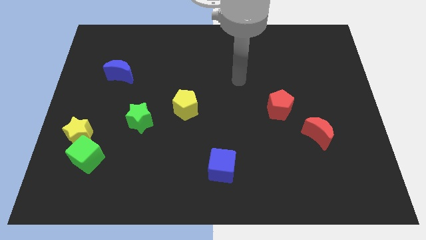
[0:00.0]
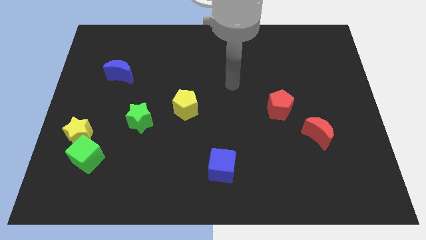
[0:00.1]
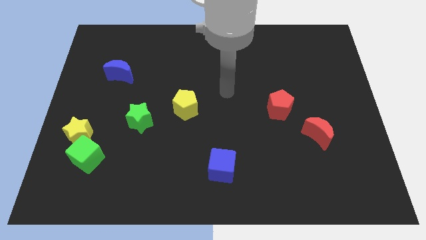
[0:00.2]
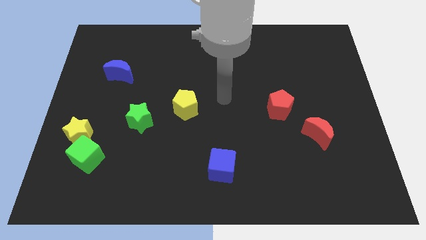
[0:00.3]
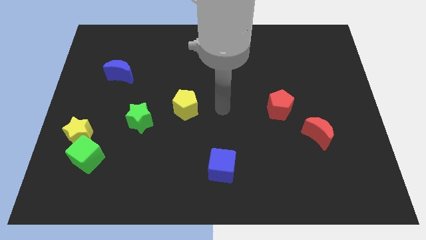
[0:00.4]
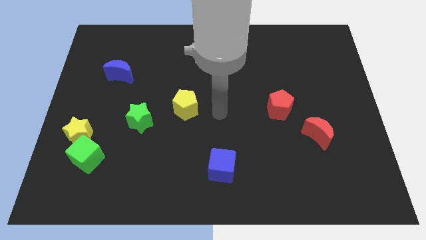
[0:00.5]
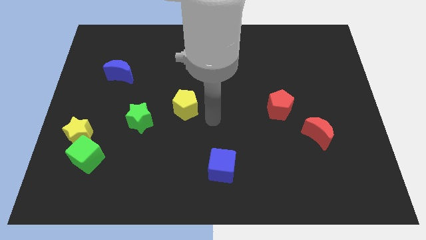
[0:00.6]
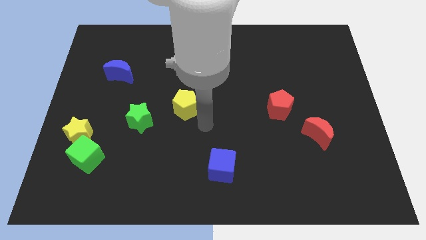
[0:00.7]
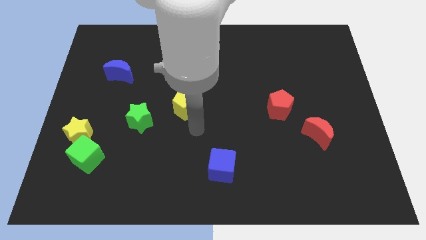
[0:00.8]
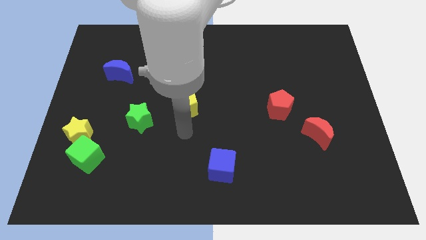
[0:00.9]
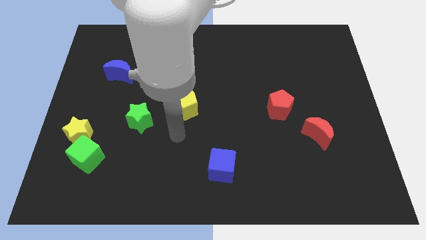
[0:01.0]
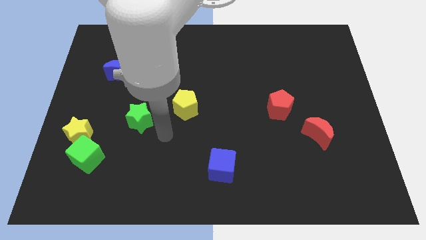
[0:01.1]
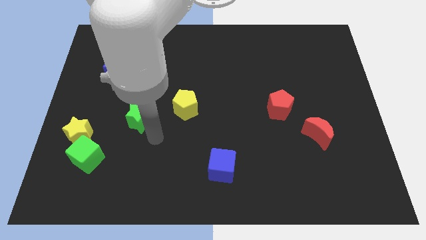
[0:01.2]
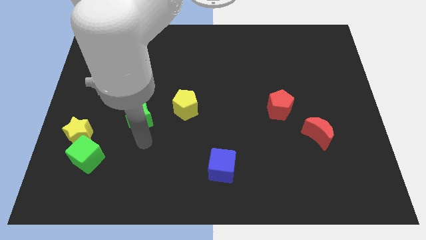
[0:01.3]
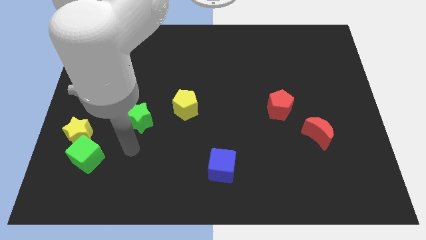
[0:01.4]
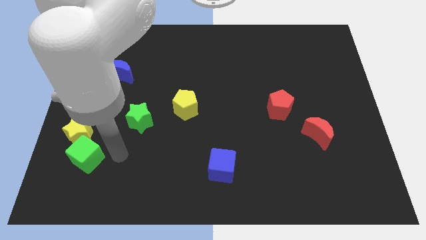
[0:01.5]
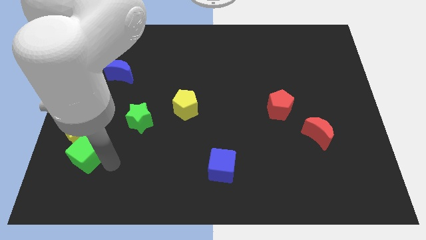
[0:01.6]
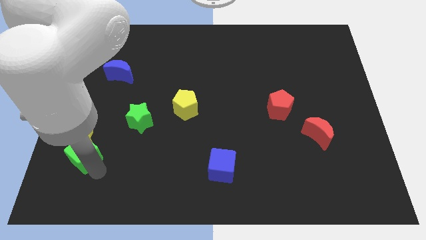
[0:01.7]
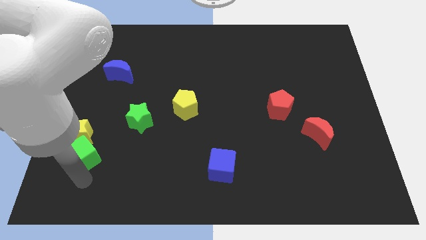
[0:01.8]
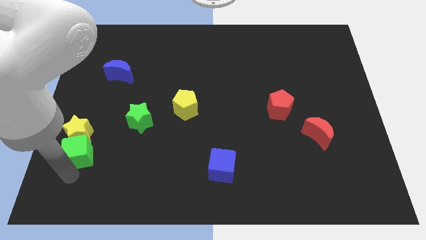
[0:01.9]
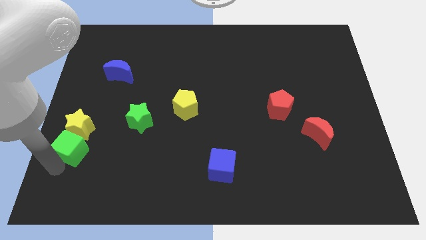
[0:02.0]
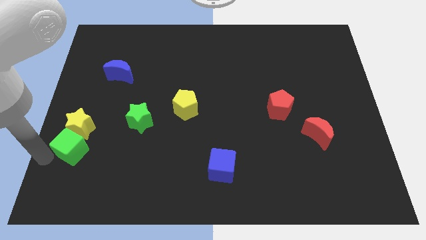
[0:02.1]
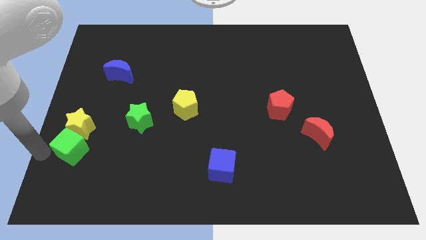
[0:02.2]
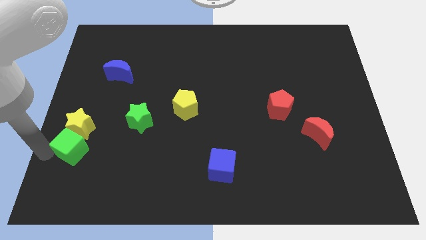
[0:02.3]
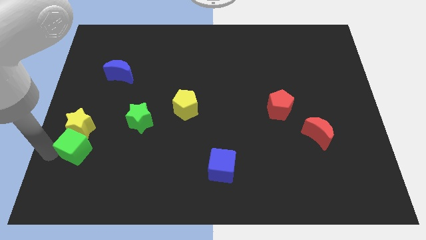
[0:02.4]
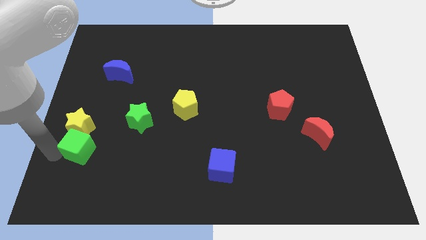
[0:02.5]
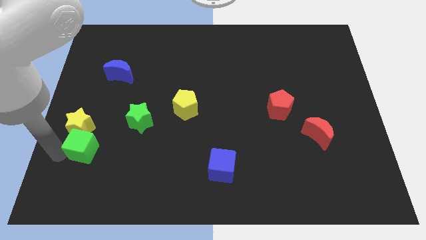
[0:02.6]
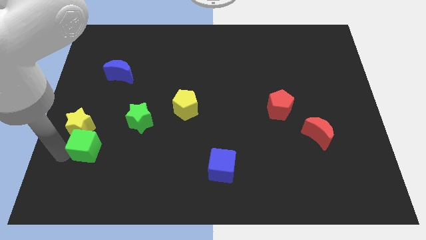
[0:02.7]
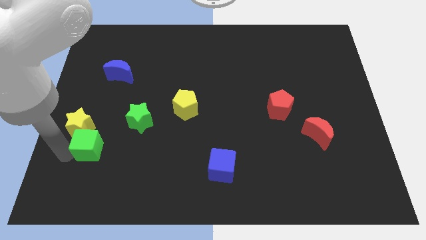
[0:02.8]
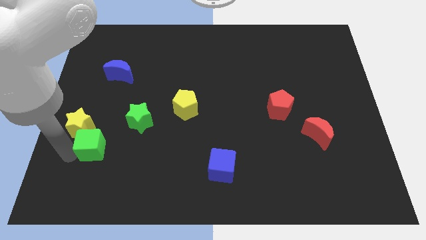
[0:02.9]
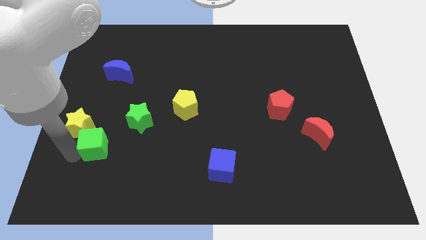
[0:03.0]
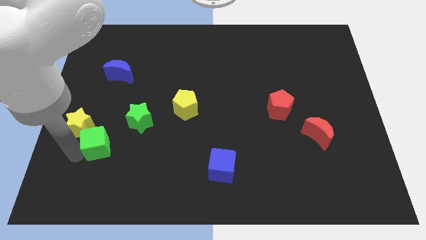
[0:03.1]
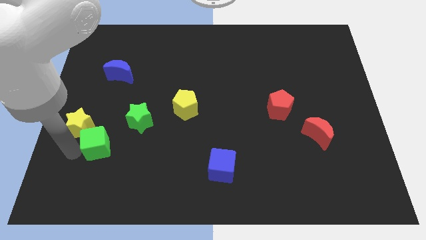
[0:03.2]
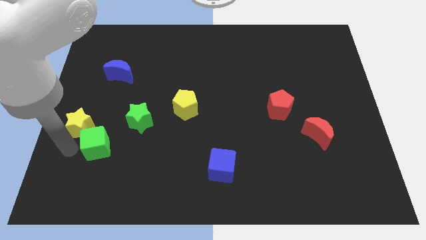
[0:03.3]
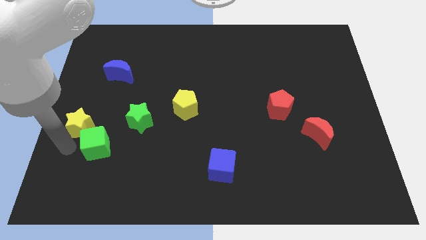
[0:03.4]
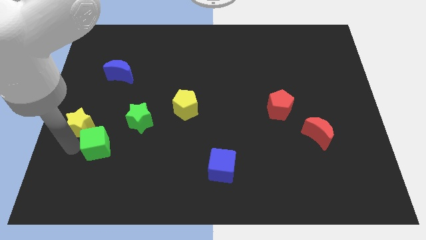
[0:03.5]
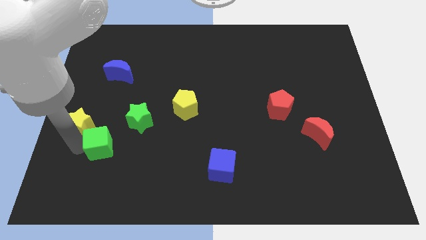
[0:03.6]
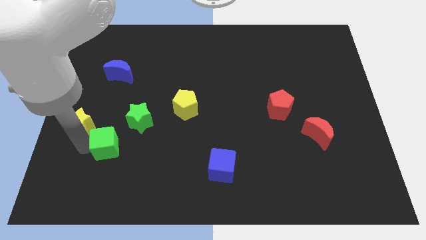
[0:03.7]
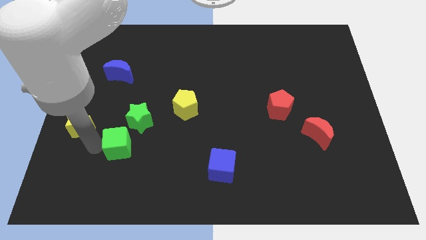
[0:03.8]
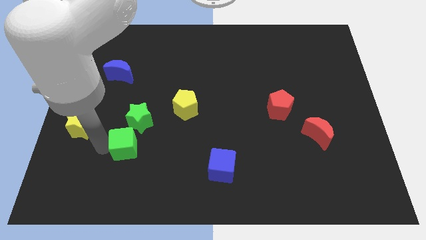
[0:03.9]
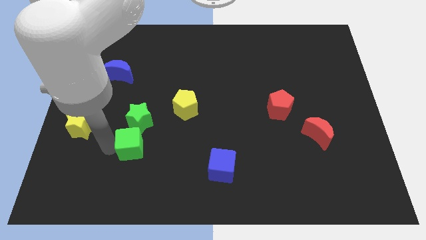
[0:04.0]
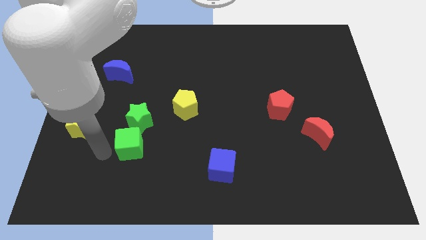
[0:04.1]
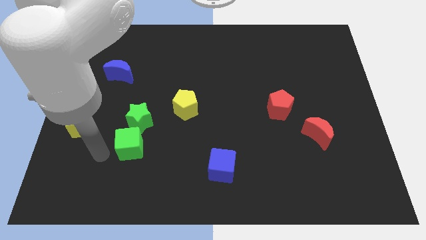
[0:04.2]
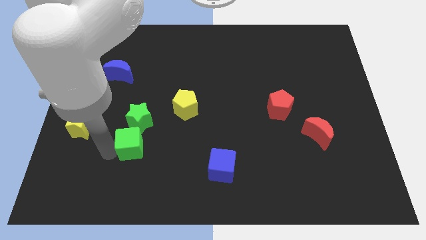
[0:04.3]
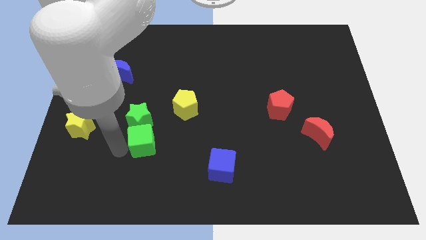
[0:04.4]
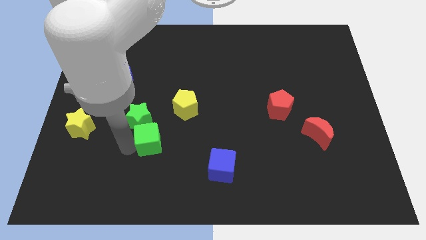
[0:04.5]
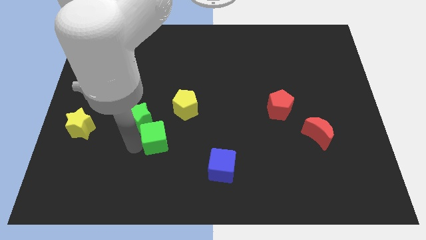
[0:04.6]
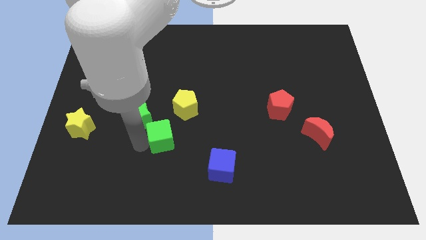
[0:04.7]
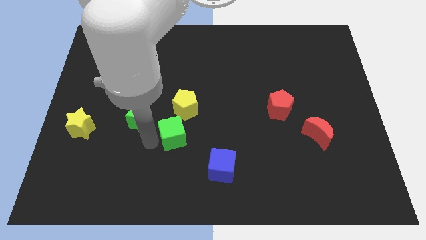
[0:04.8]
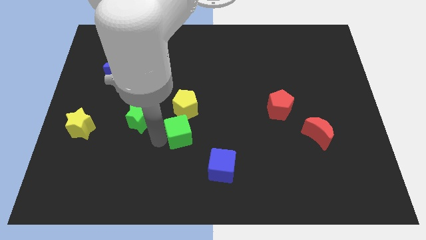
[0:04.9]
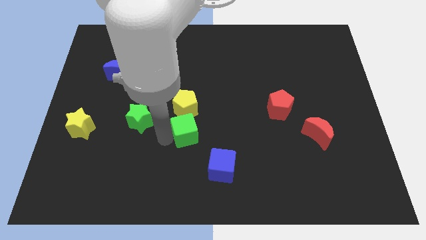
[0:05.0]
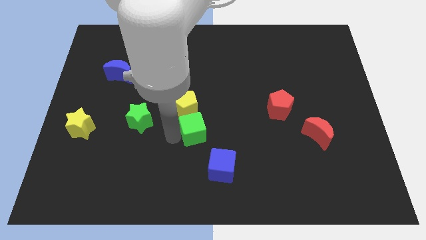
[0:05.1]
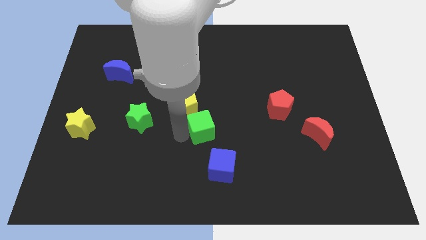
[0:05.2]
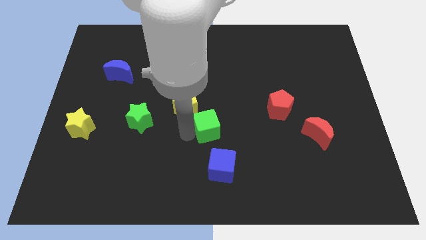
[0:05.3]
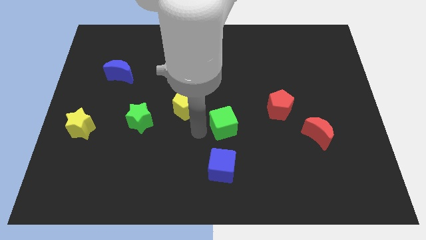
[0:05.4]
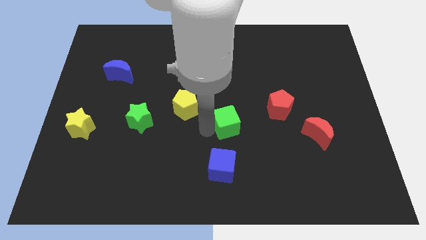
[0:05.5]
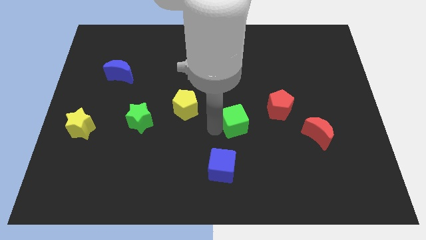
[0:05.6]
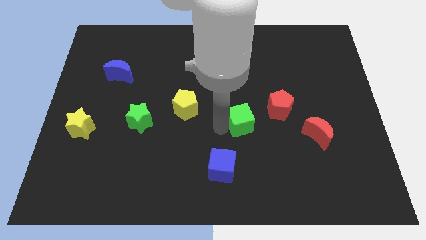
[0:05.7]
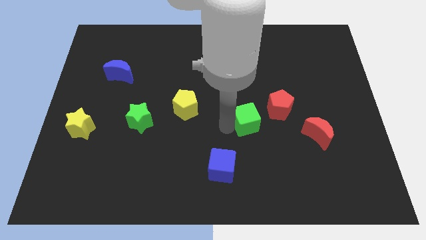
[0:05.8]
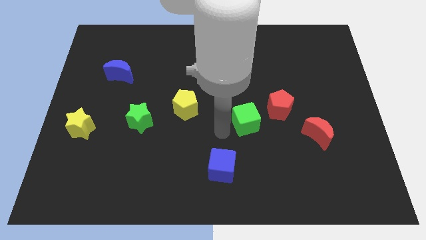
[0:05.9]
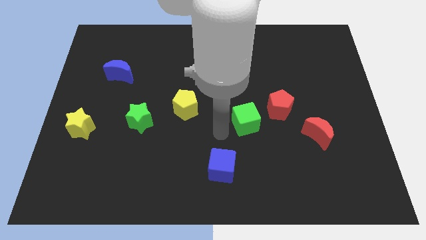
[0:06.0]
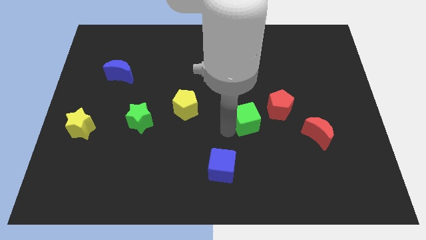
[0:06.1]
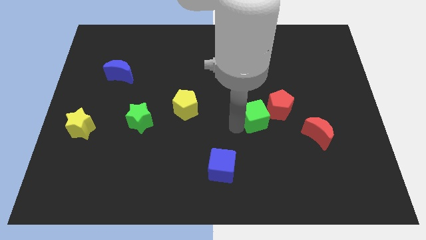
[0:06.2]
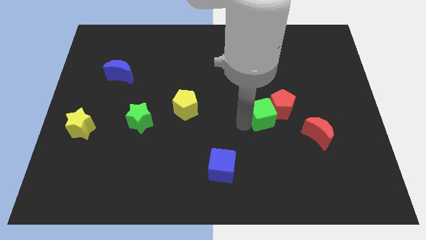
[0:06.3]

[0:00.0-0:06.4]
push the green cube to the red pentagon

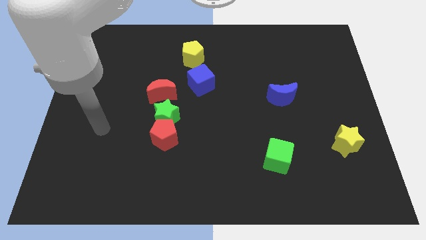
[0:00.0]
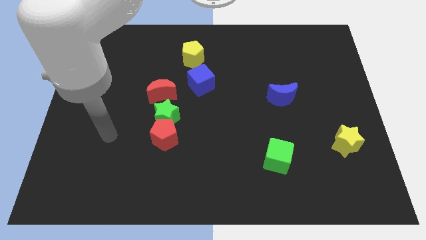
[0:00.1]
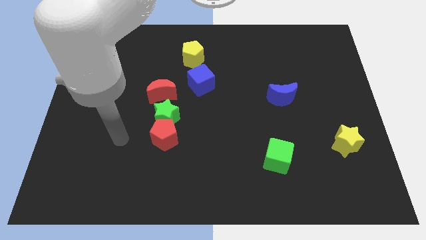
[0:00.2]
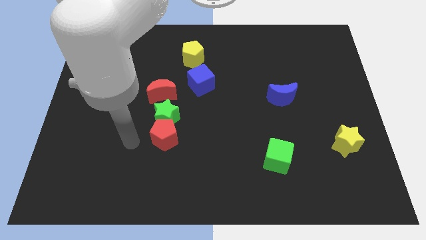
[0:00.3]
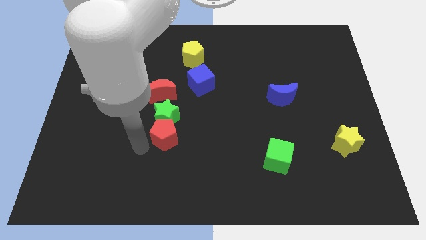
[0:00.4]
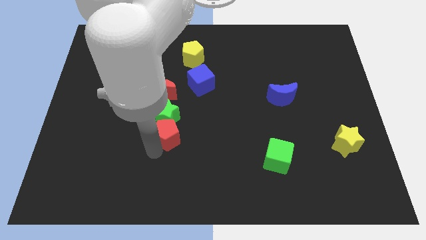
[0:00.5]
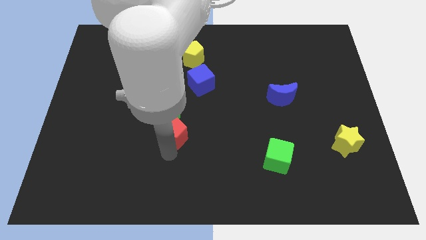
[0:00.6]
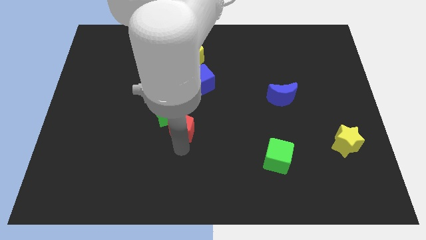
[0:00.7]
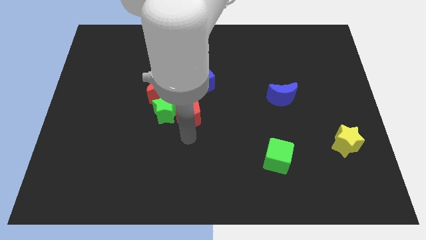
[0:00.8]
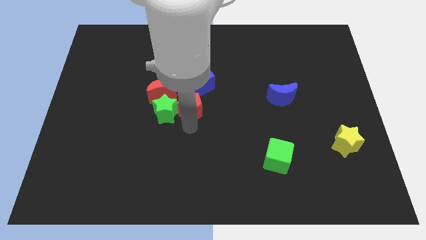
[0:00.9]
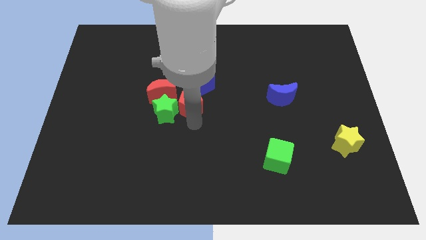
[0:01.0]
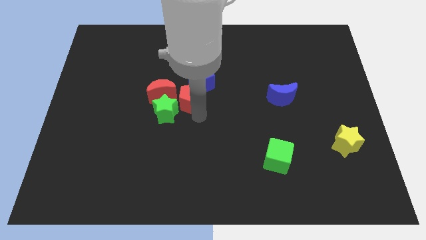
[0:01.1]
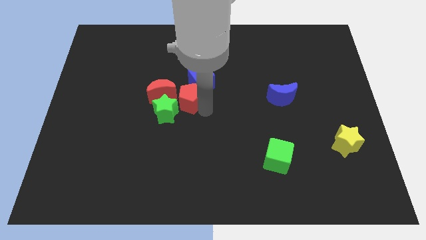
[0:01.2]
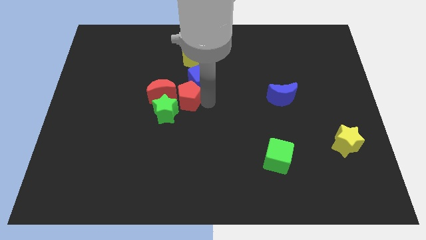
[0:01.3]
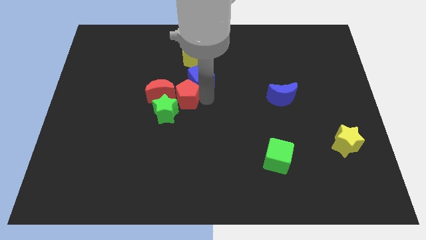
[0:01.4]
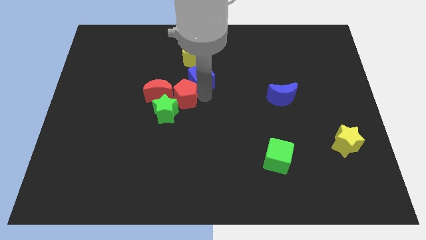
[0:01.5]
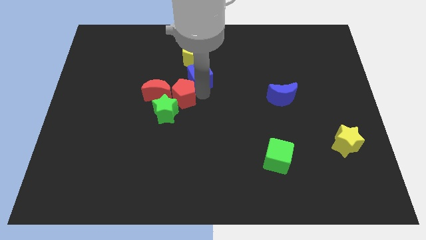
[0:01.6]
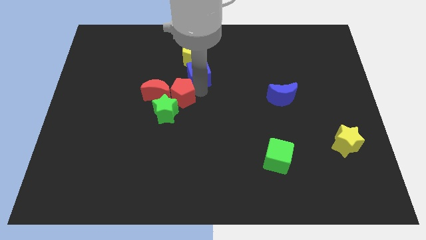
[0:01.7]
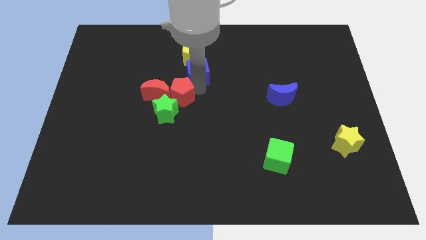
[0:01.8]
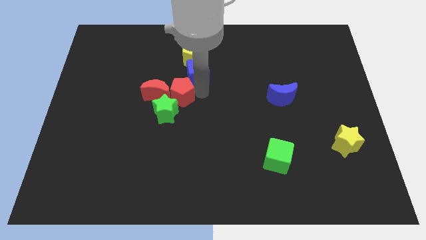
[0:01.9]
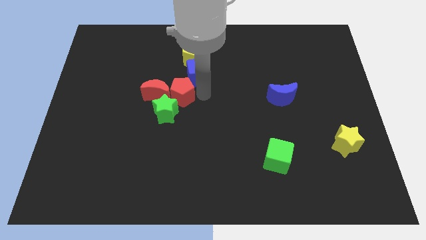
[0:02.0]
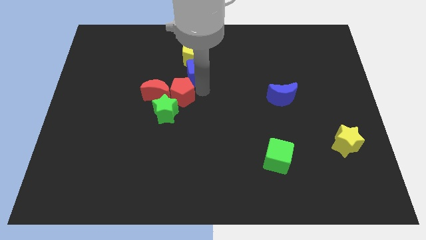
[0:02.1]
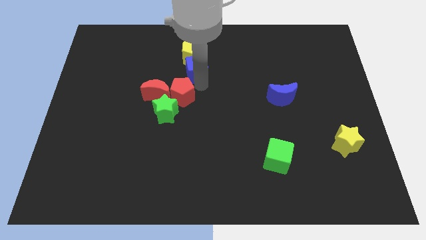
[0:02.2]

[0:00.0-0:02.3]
move the blue cube to the yellow pentagon
